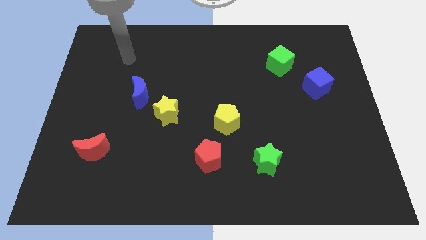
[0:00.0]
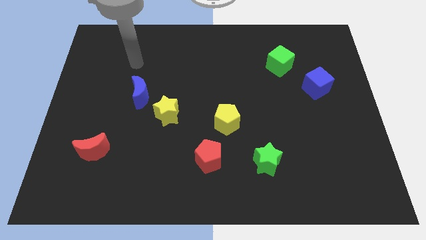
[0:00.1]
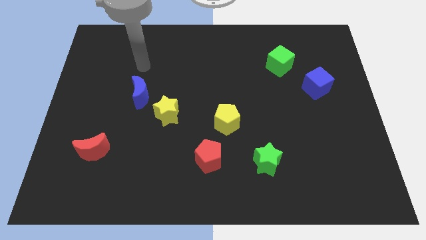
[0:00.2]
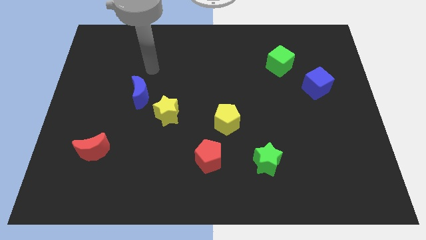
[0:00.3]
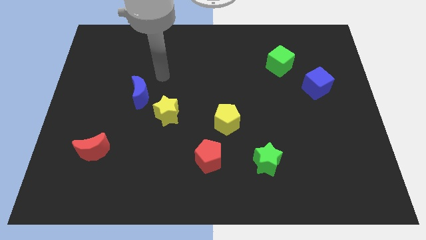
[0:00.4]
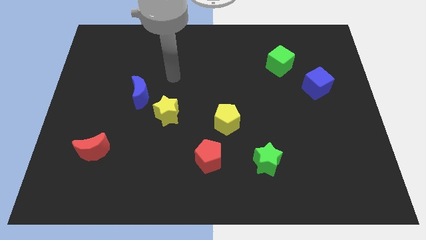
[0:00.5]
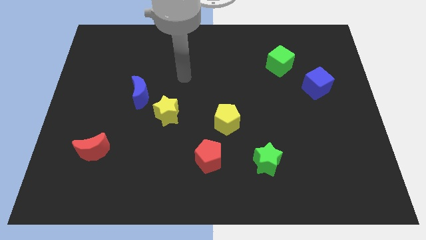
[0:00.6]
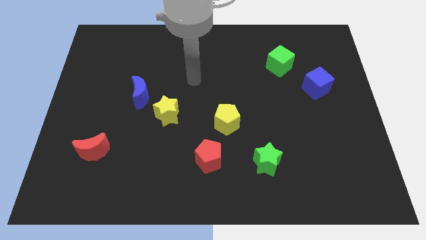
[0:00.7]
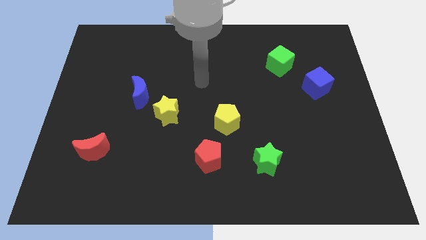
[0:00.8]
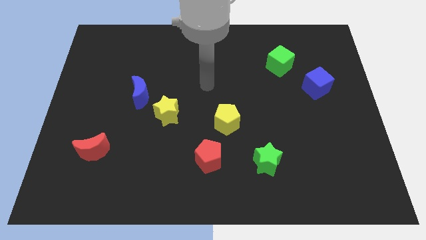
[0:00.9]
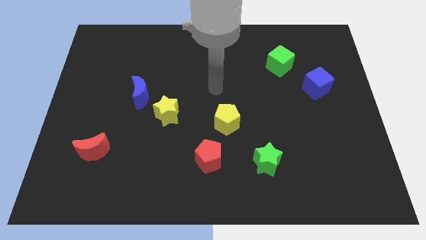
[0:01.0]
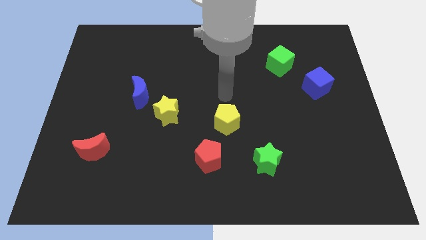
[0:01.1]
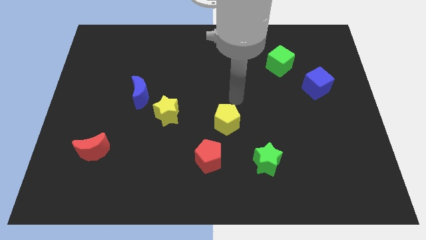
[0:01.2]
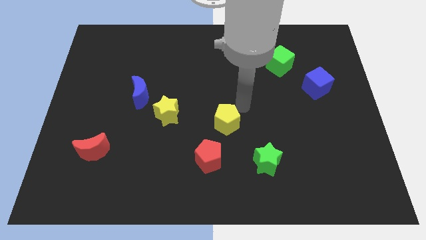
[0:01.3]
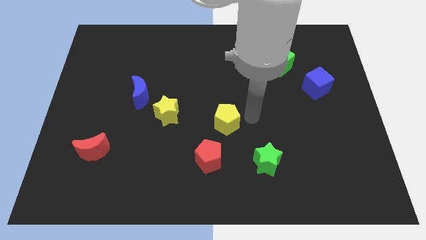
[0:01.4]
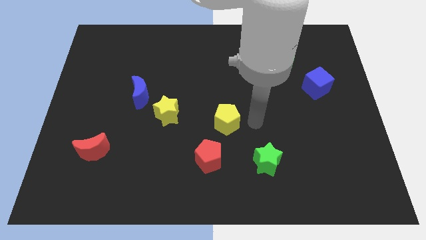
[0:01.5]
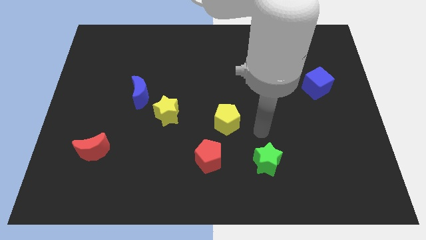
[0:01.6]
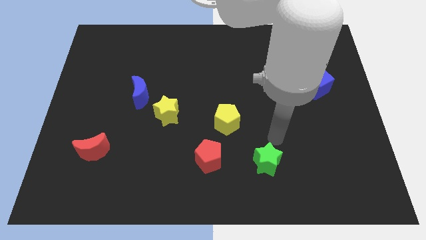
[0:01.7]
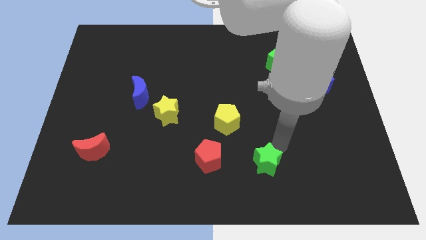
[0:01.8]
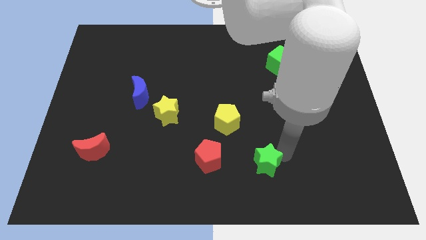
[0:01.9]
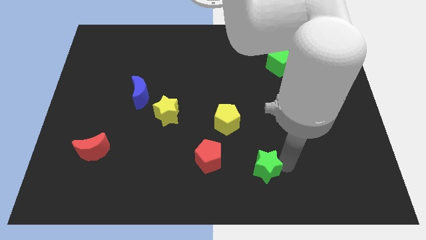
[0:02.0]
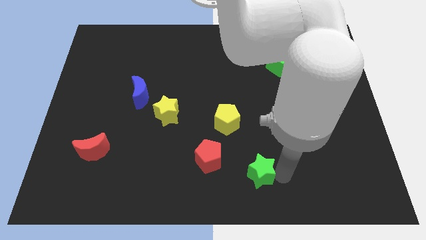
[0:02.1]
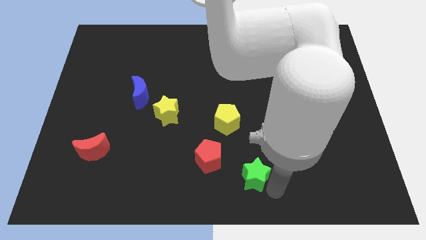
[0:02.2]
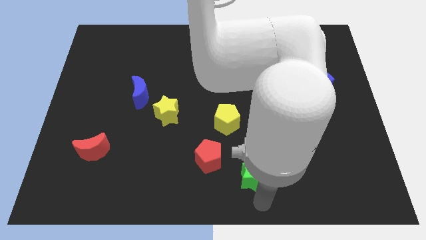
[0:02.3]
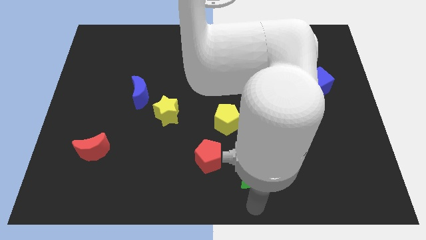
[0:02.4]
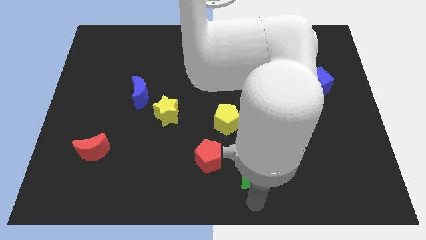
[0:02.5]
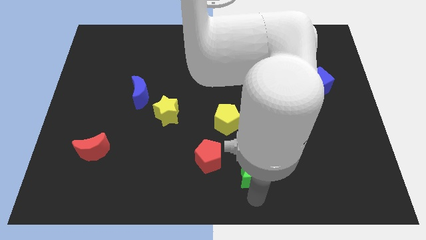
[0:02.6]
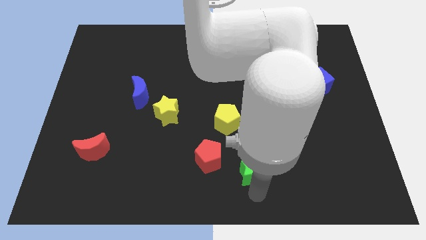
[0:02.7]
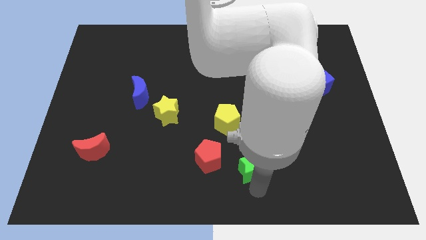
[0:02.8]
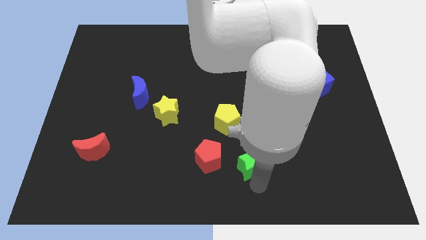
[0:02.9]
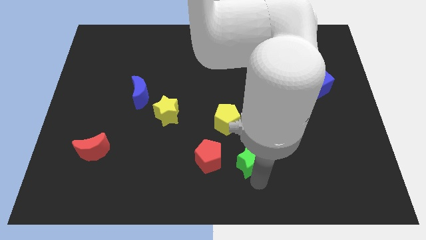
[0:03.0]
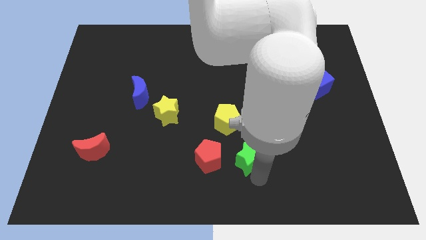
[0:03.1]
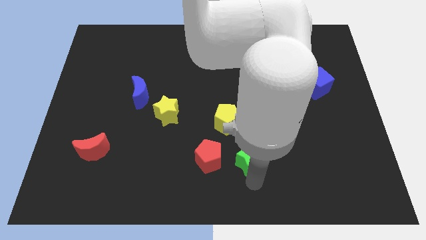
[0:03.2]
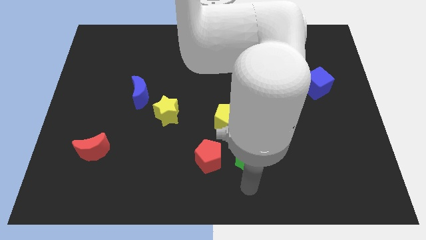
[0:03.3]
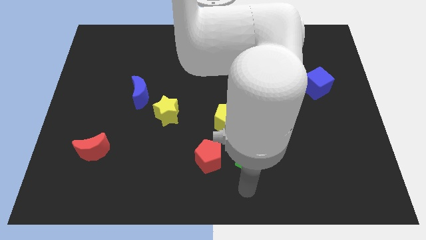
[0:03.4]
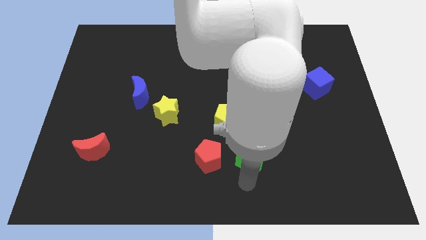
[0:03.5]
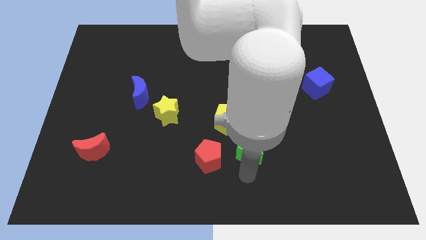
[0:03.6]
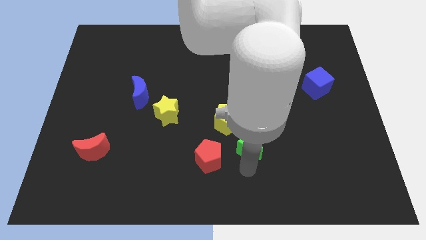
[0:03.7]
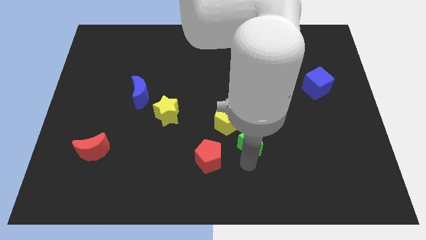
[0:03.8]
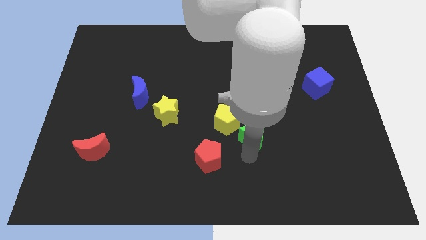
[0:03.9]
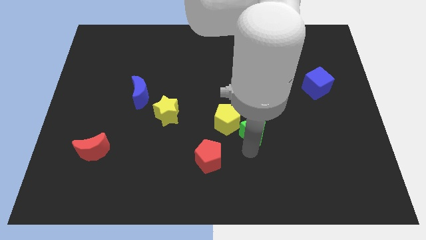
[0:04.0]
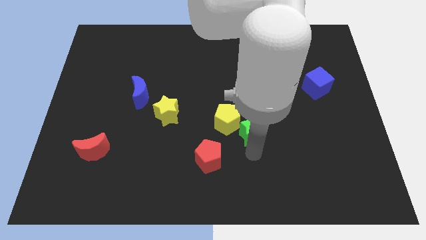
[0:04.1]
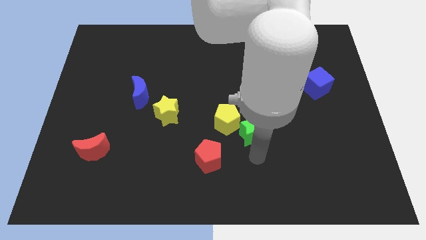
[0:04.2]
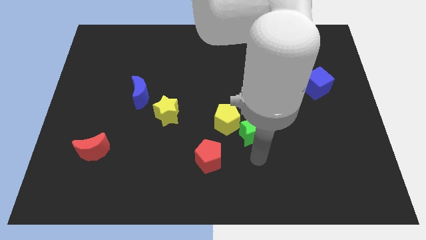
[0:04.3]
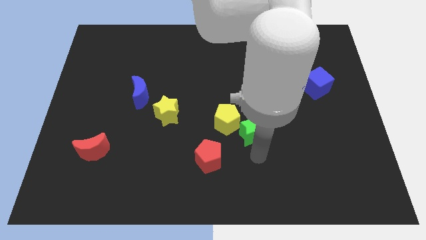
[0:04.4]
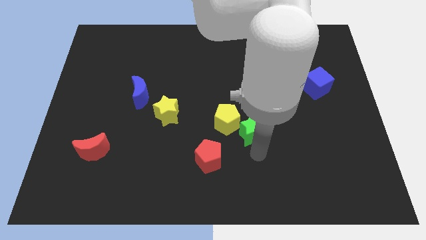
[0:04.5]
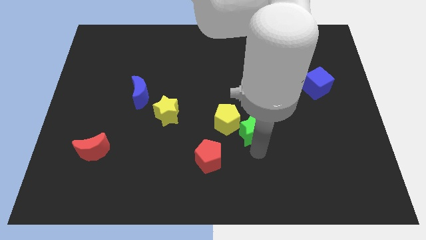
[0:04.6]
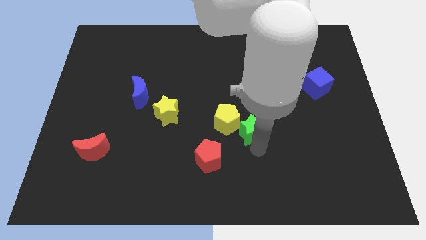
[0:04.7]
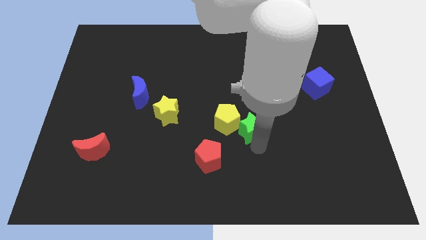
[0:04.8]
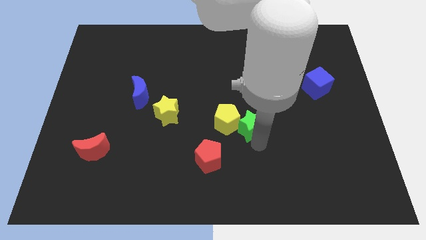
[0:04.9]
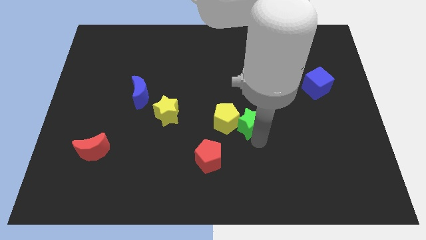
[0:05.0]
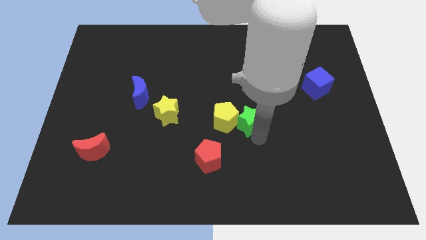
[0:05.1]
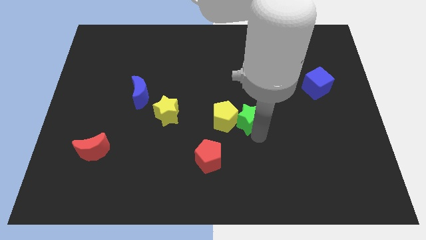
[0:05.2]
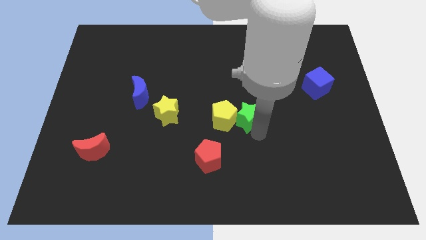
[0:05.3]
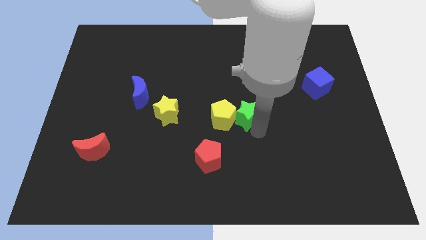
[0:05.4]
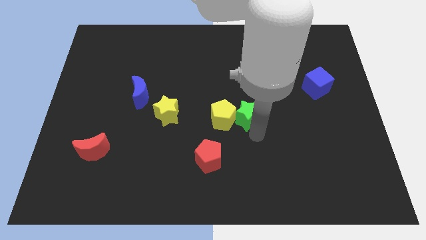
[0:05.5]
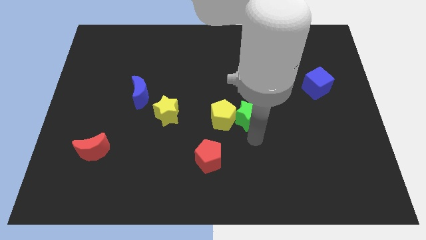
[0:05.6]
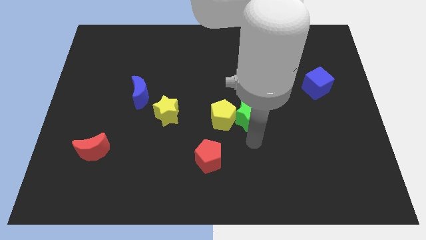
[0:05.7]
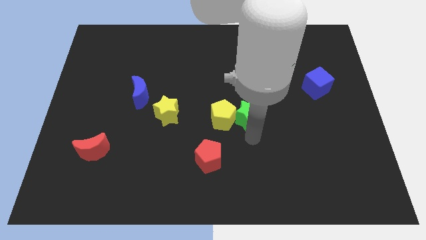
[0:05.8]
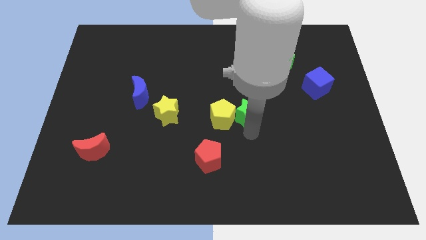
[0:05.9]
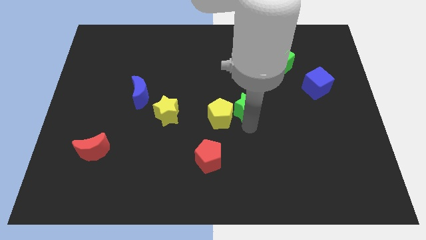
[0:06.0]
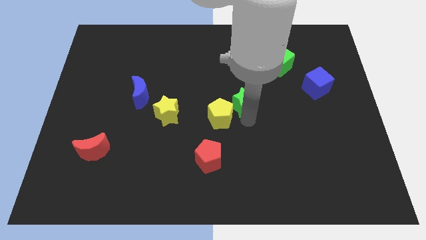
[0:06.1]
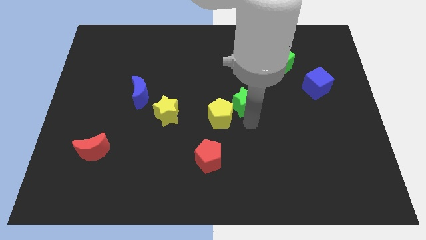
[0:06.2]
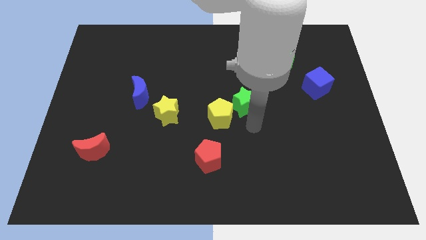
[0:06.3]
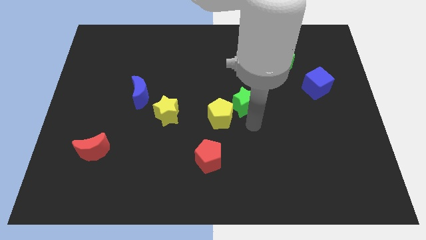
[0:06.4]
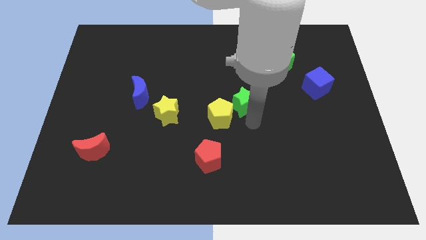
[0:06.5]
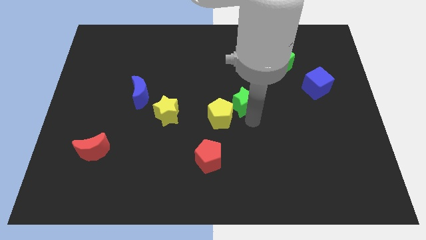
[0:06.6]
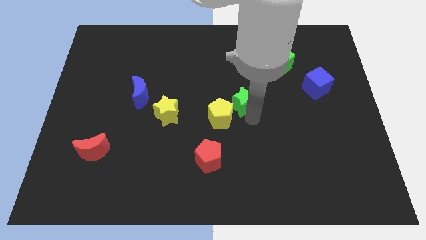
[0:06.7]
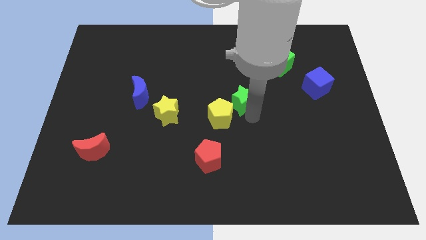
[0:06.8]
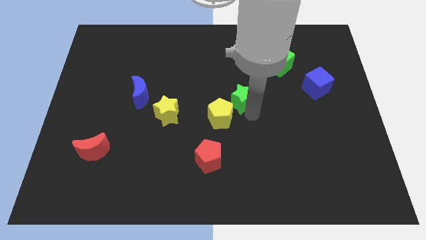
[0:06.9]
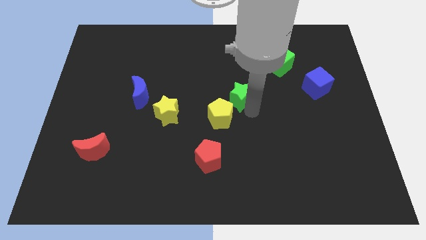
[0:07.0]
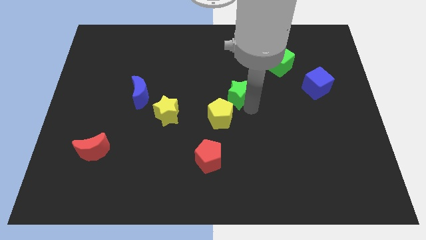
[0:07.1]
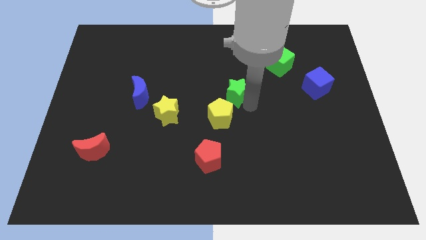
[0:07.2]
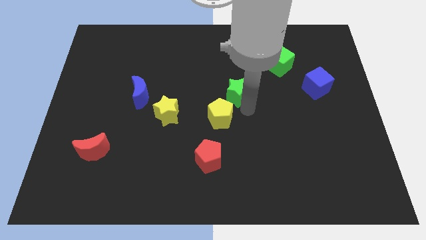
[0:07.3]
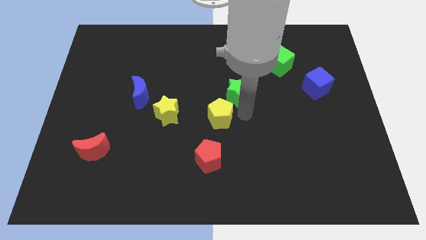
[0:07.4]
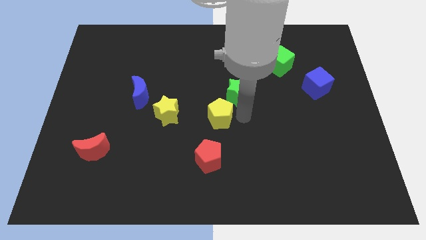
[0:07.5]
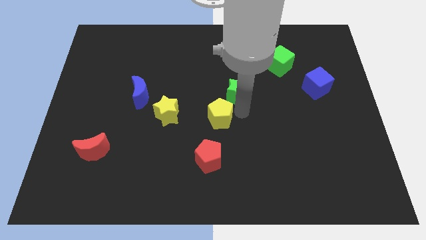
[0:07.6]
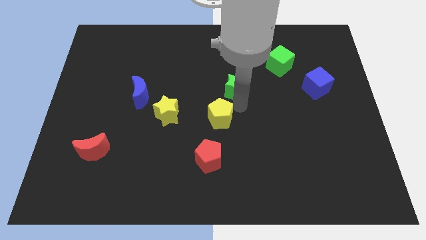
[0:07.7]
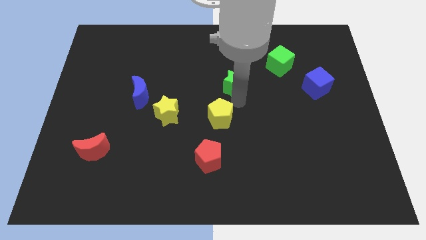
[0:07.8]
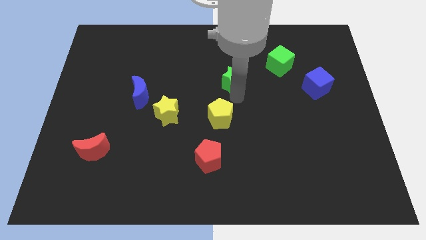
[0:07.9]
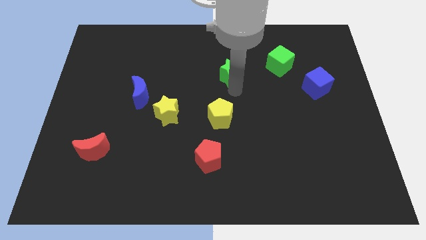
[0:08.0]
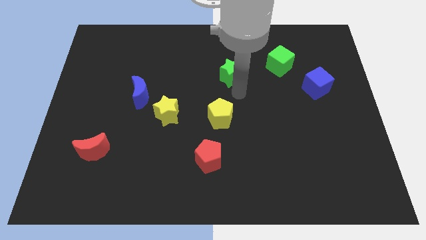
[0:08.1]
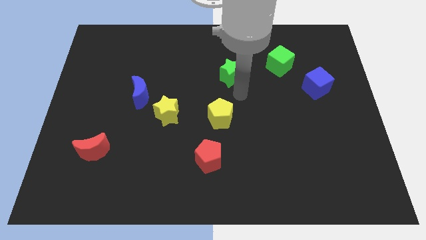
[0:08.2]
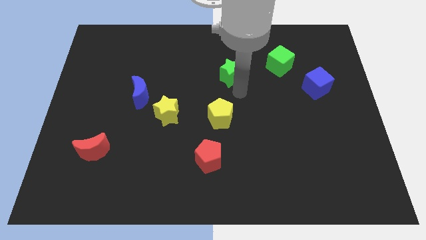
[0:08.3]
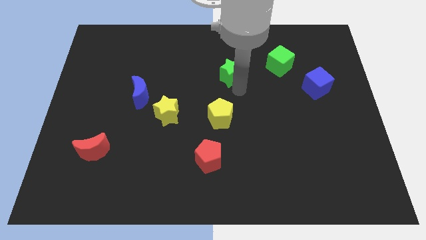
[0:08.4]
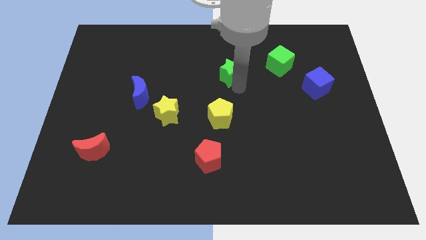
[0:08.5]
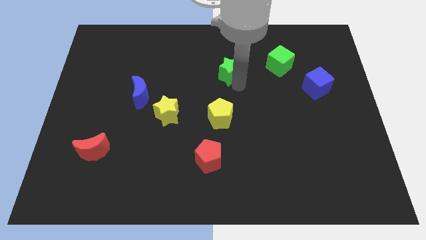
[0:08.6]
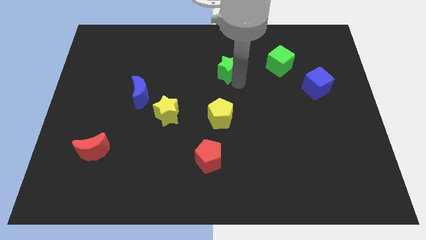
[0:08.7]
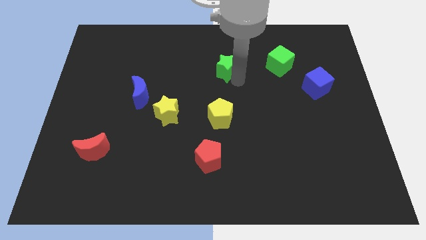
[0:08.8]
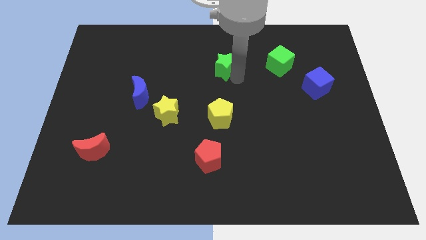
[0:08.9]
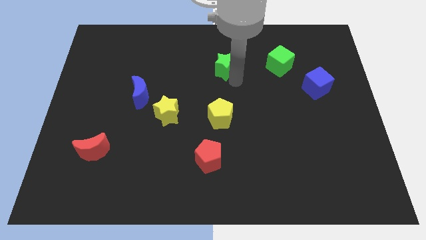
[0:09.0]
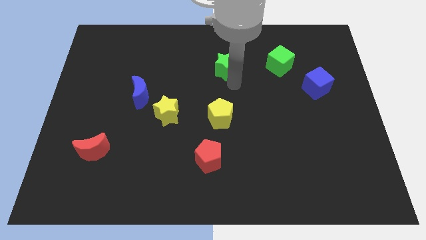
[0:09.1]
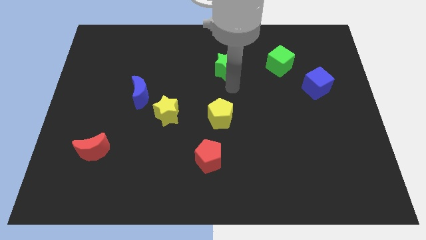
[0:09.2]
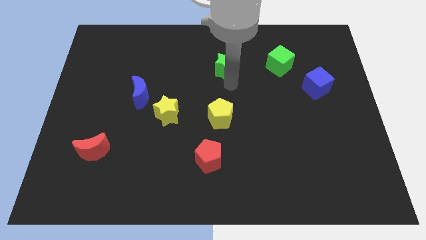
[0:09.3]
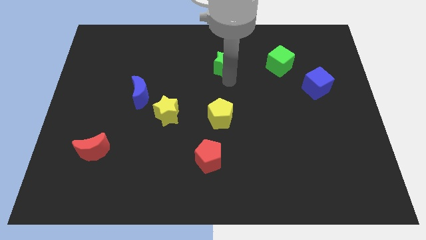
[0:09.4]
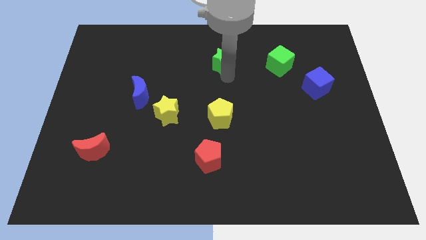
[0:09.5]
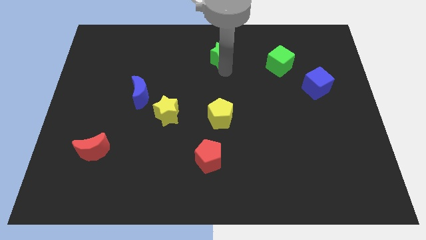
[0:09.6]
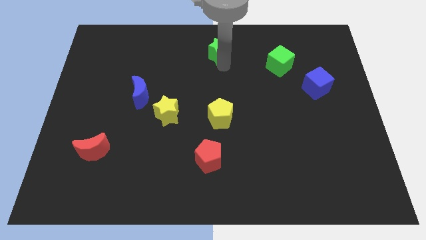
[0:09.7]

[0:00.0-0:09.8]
slide the green star to the top
